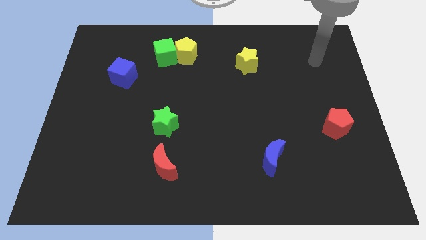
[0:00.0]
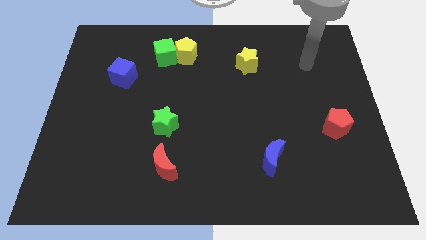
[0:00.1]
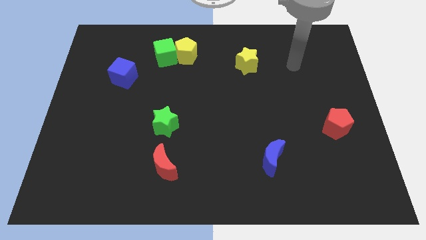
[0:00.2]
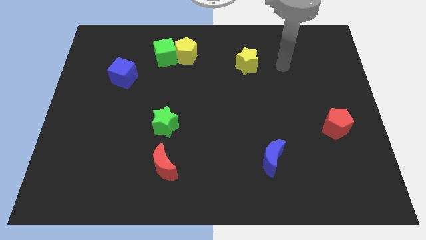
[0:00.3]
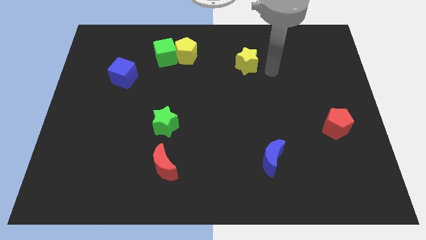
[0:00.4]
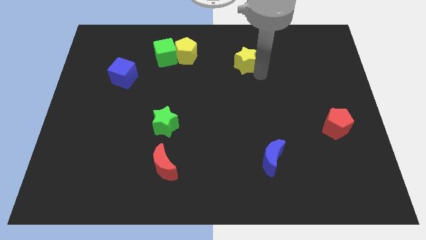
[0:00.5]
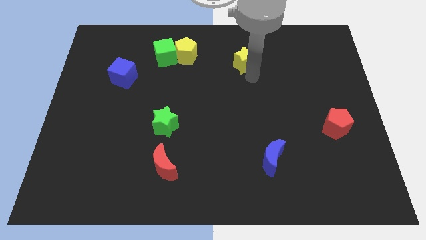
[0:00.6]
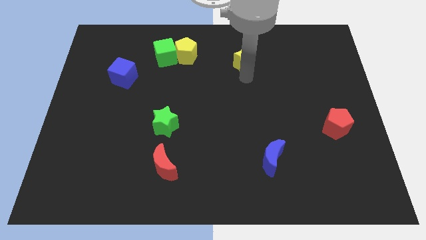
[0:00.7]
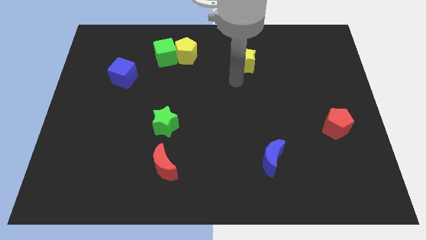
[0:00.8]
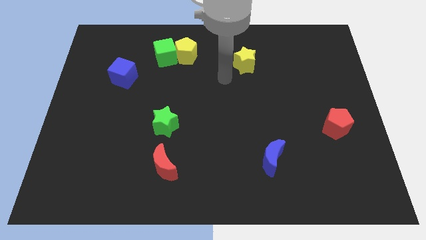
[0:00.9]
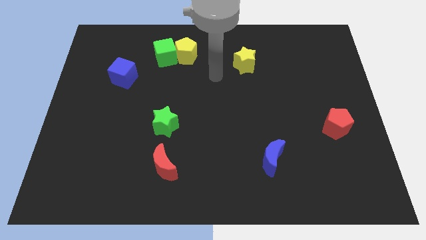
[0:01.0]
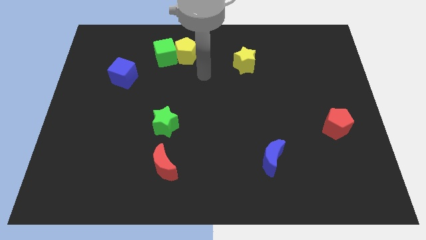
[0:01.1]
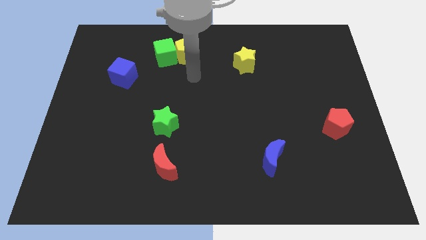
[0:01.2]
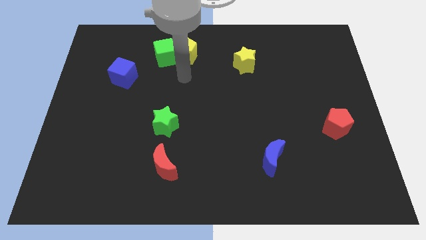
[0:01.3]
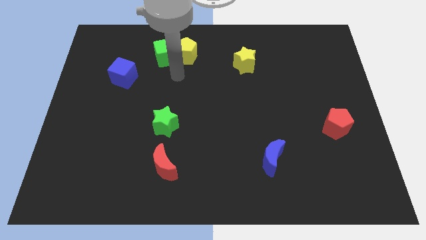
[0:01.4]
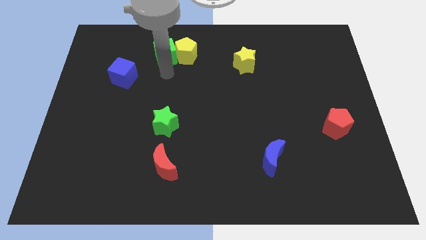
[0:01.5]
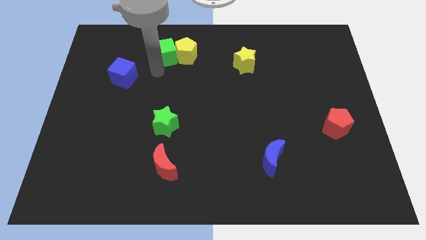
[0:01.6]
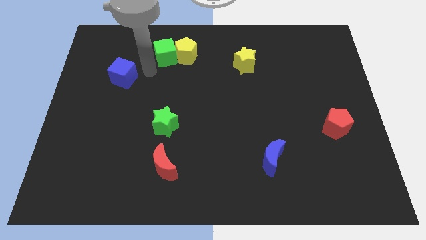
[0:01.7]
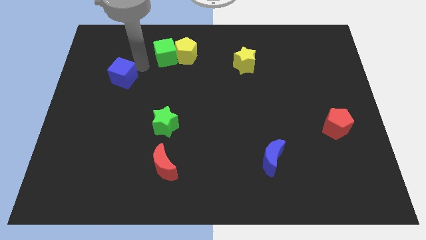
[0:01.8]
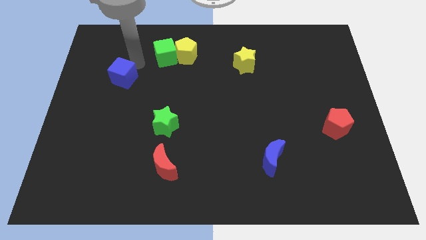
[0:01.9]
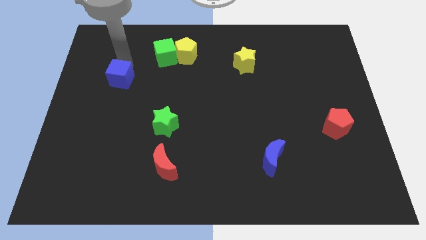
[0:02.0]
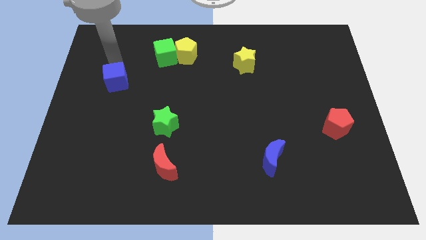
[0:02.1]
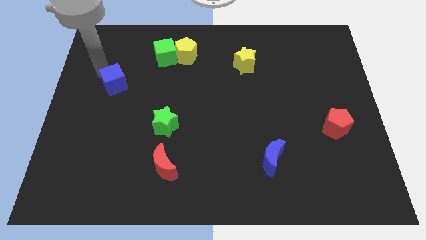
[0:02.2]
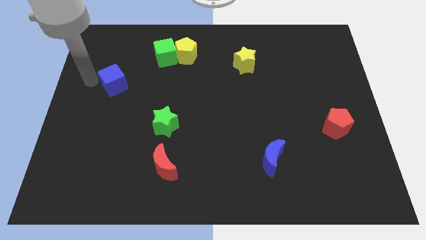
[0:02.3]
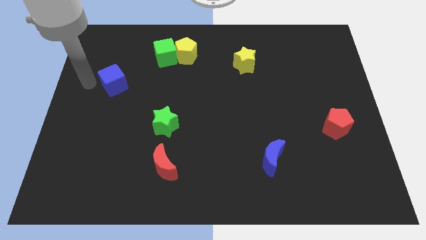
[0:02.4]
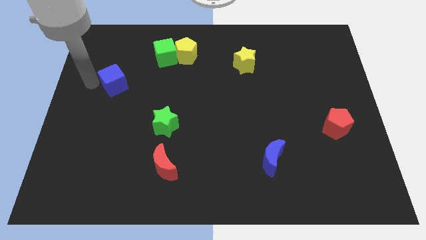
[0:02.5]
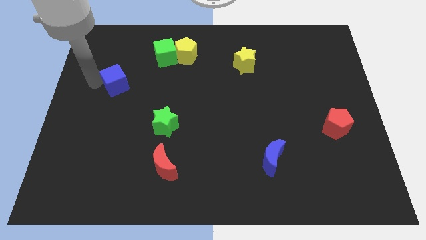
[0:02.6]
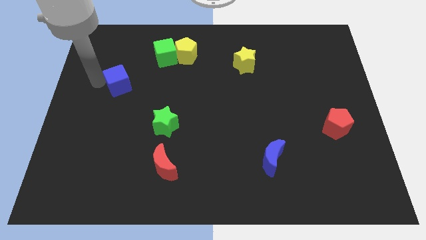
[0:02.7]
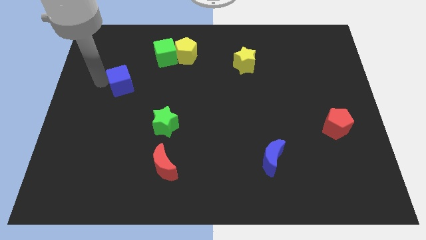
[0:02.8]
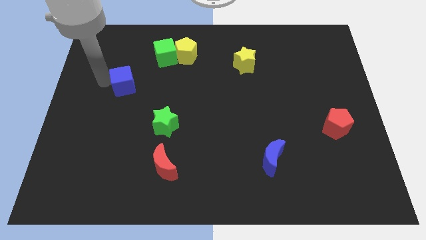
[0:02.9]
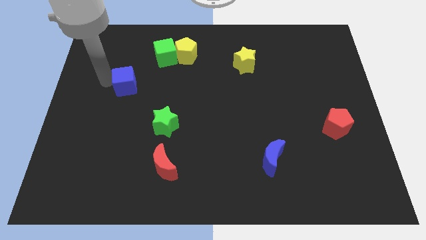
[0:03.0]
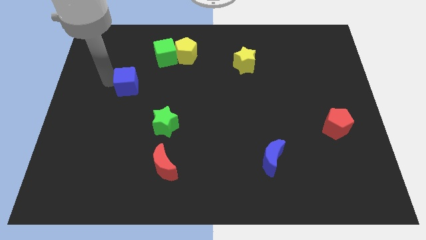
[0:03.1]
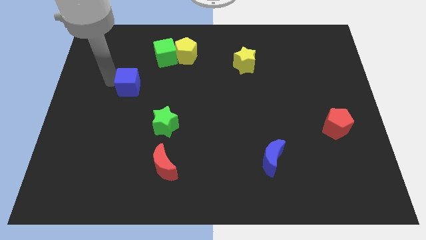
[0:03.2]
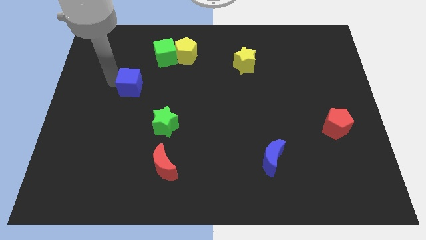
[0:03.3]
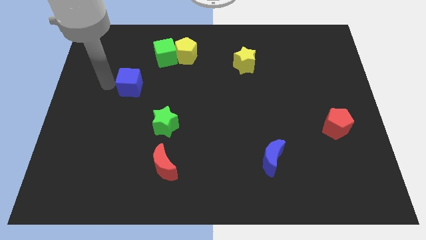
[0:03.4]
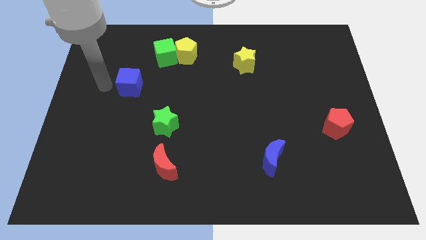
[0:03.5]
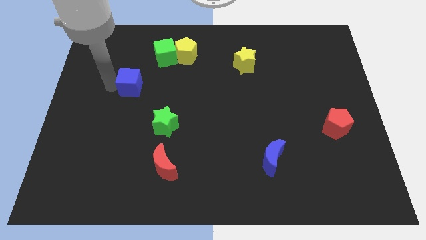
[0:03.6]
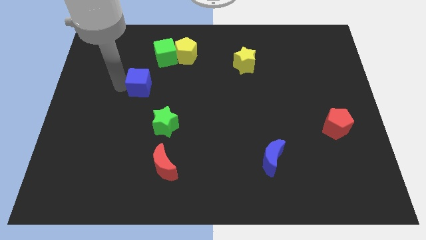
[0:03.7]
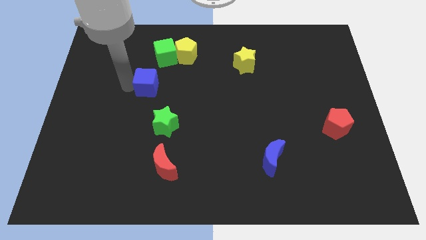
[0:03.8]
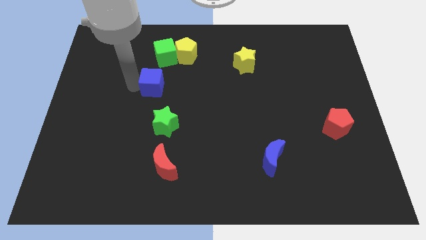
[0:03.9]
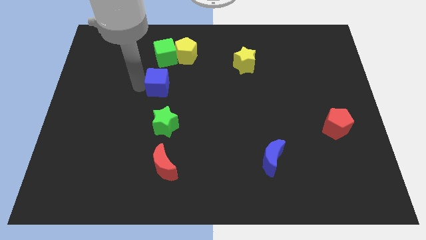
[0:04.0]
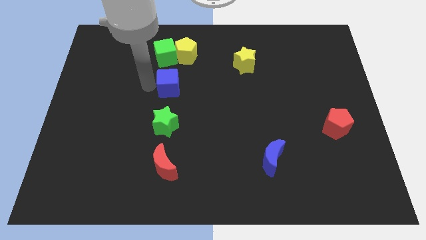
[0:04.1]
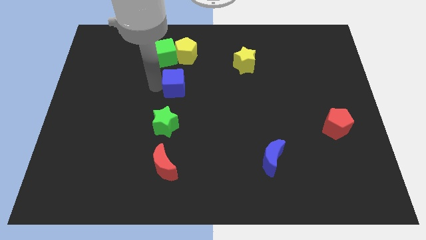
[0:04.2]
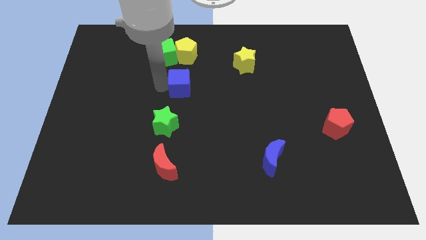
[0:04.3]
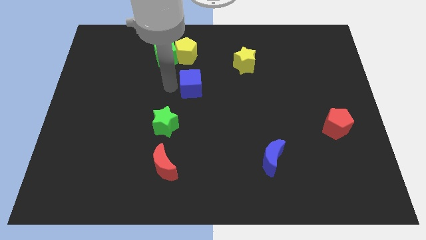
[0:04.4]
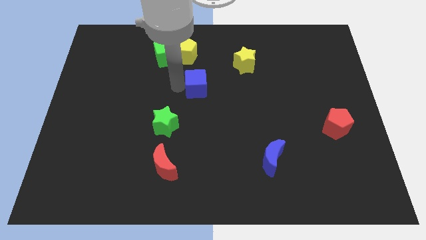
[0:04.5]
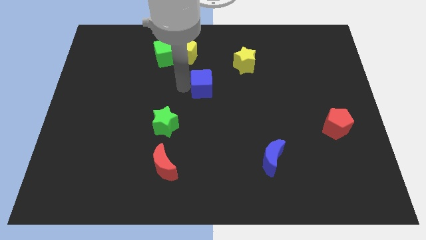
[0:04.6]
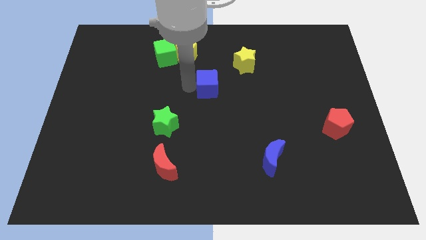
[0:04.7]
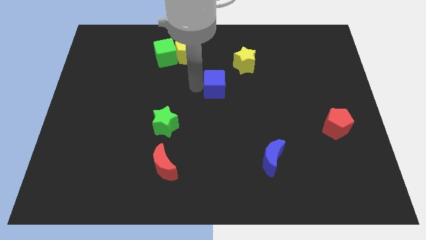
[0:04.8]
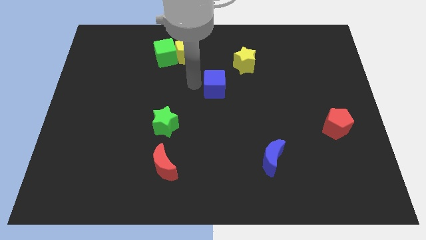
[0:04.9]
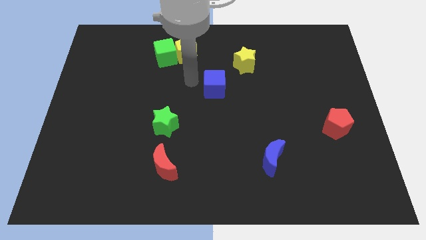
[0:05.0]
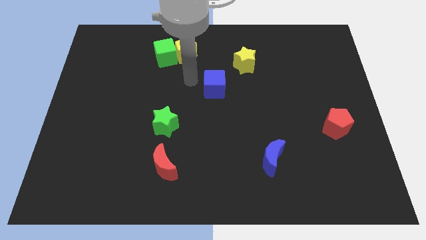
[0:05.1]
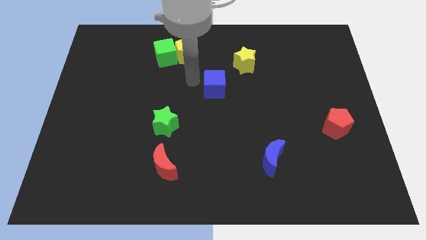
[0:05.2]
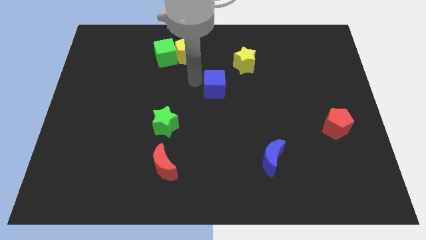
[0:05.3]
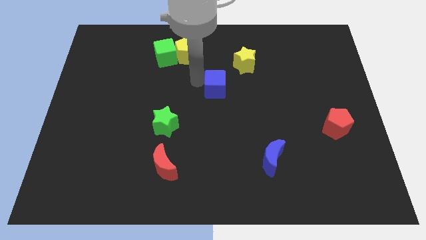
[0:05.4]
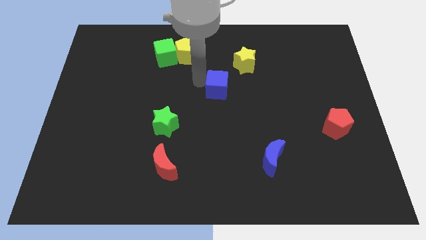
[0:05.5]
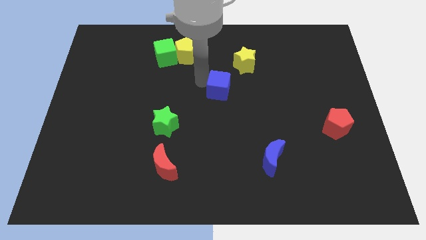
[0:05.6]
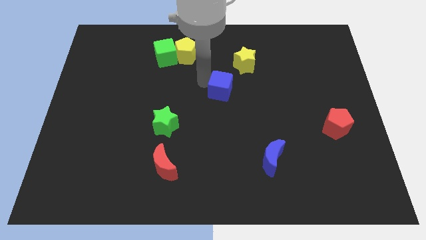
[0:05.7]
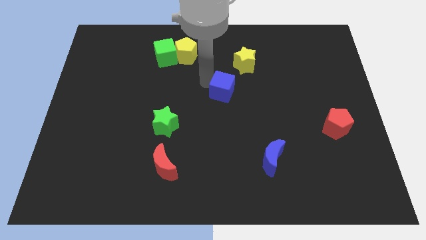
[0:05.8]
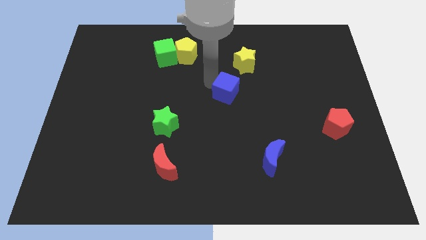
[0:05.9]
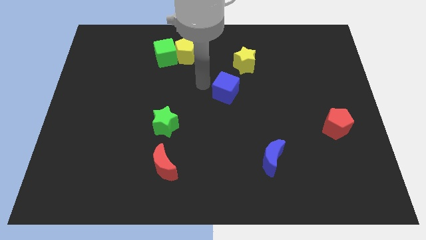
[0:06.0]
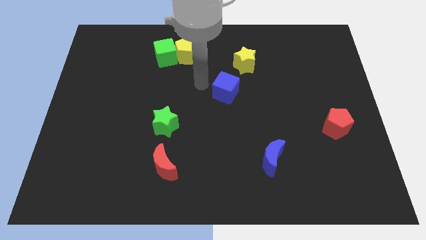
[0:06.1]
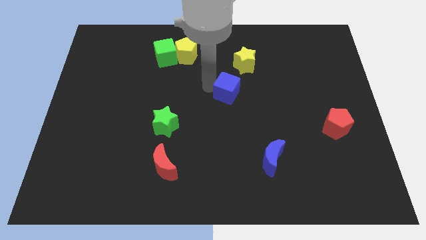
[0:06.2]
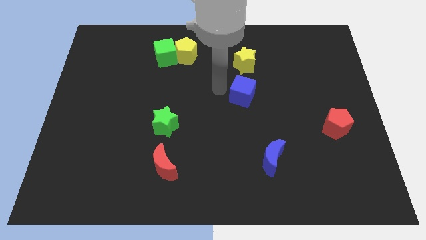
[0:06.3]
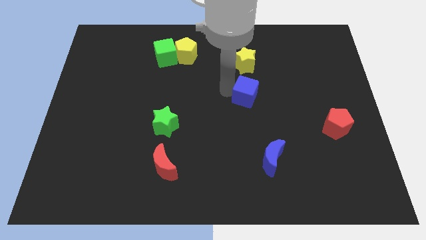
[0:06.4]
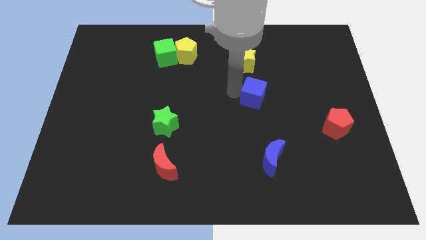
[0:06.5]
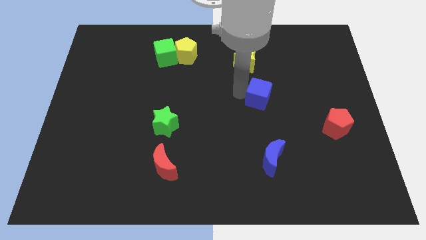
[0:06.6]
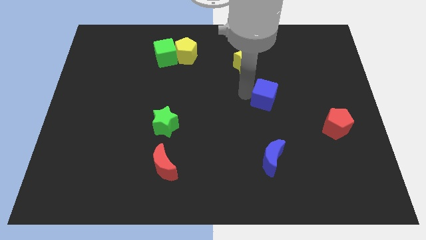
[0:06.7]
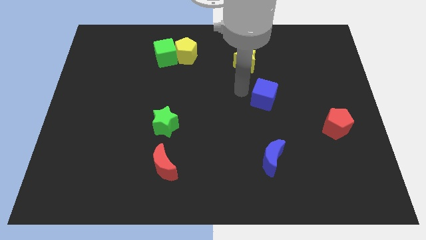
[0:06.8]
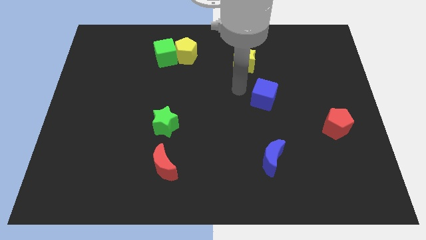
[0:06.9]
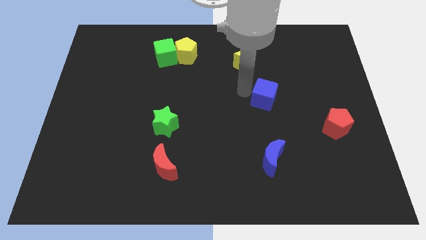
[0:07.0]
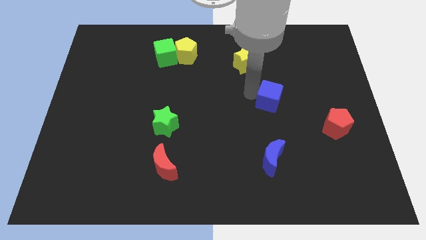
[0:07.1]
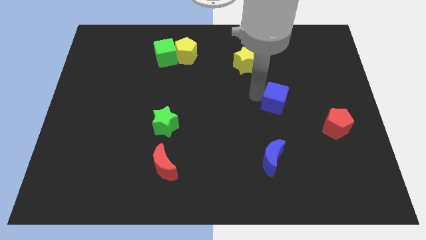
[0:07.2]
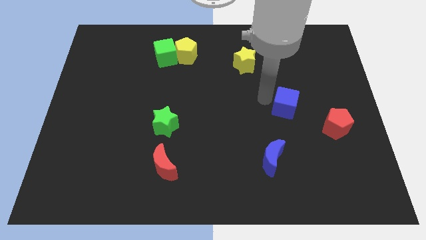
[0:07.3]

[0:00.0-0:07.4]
push the blue cube to the top left side of the red pentagon

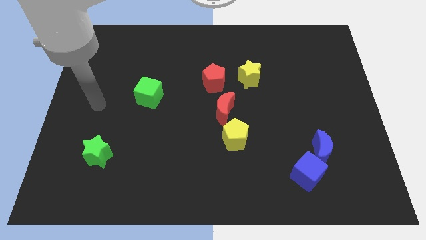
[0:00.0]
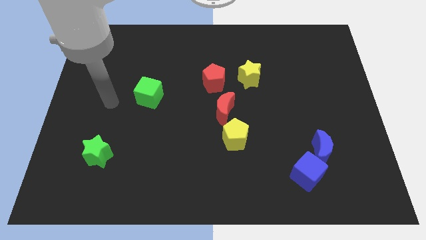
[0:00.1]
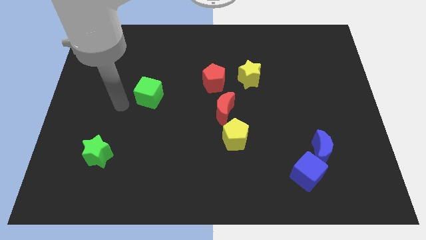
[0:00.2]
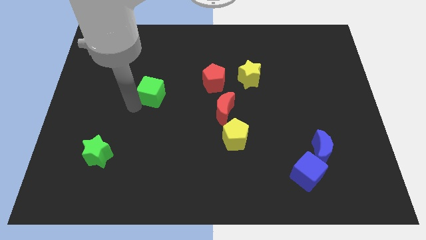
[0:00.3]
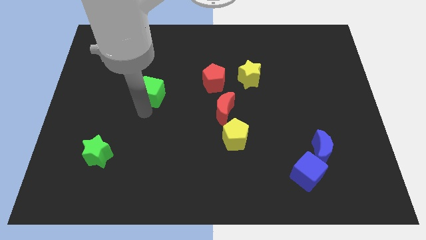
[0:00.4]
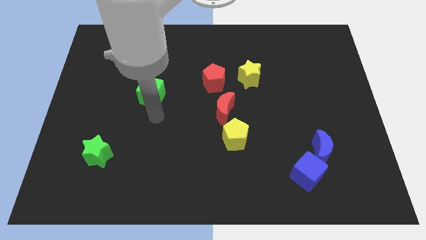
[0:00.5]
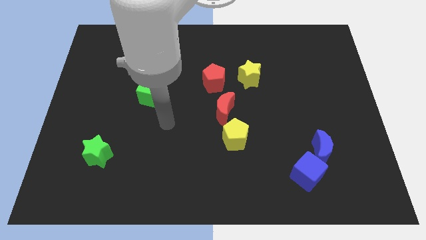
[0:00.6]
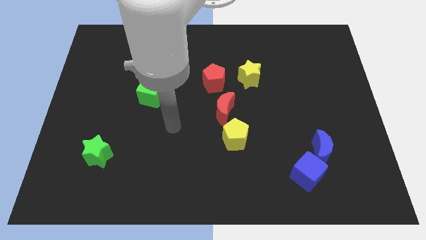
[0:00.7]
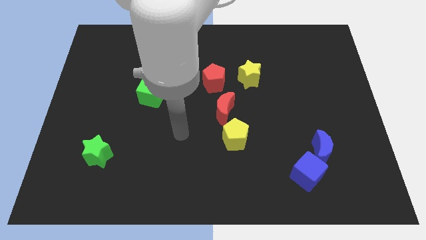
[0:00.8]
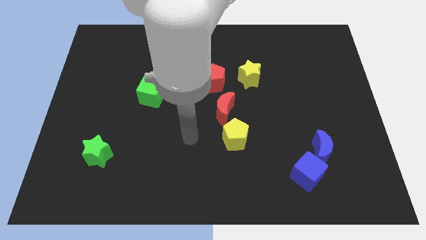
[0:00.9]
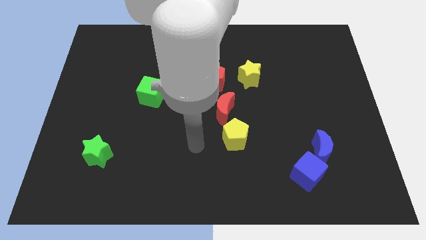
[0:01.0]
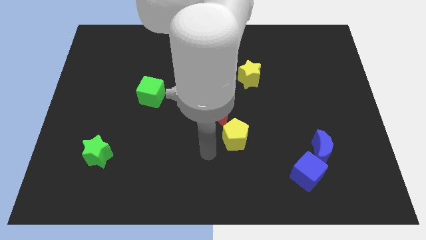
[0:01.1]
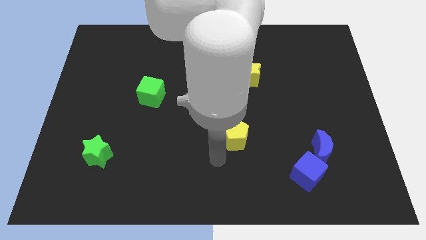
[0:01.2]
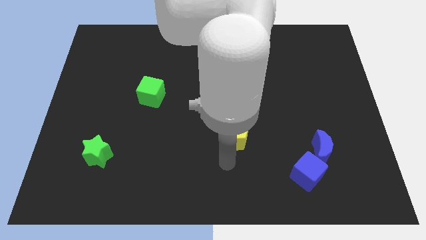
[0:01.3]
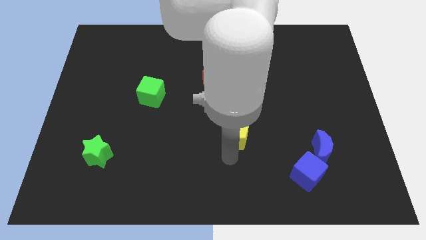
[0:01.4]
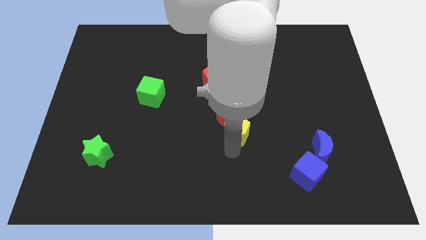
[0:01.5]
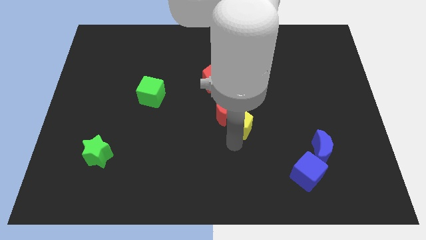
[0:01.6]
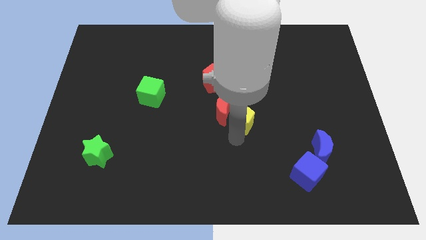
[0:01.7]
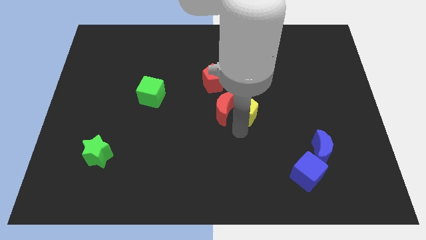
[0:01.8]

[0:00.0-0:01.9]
put the yellow pentagon diagonally up and to the right of the red moon
